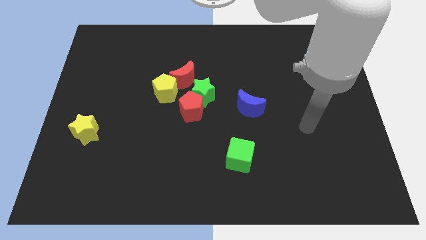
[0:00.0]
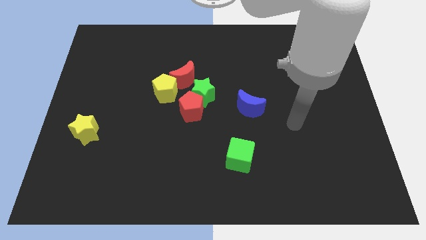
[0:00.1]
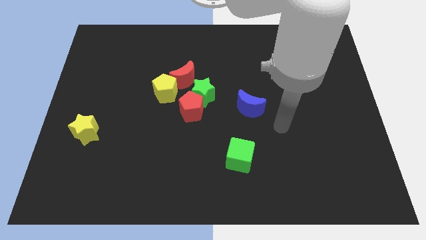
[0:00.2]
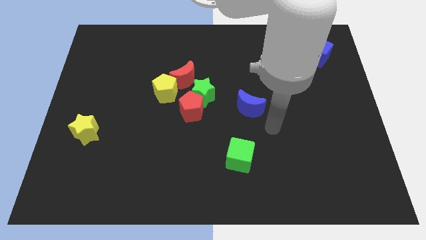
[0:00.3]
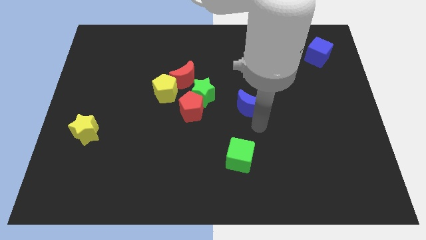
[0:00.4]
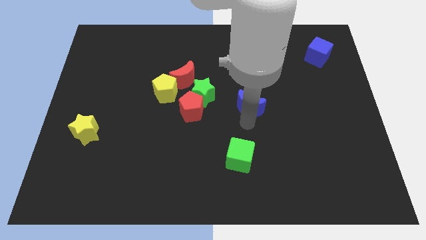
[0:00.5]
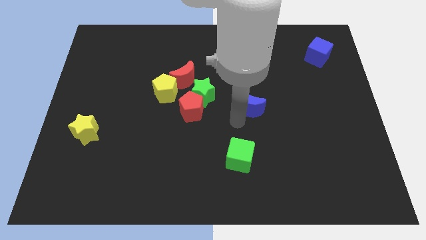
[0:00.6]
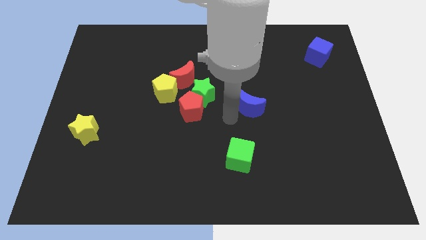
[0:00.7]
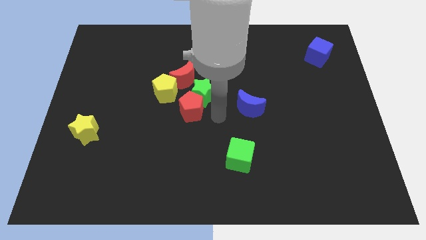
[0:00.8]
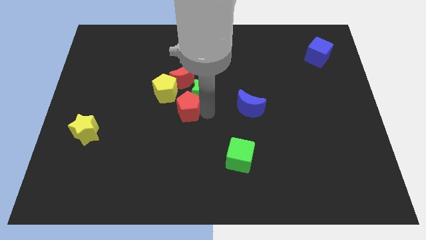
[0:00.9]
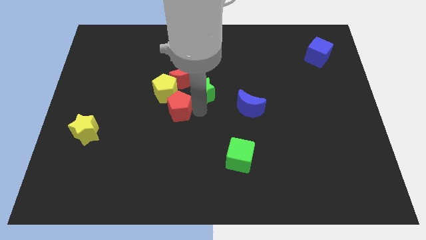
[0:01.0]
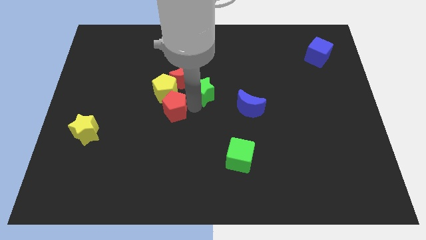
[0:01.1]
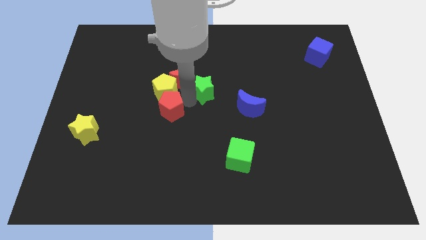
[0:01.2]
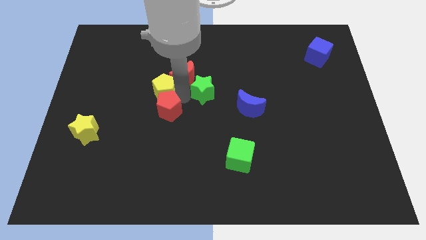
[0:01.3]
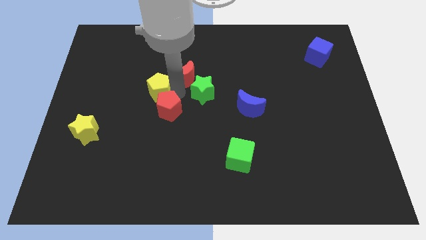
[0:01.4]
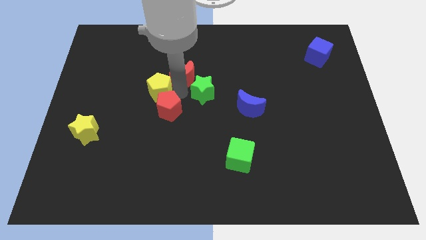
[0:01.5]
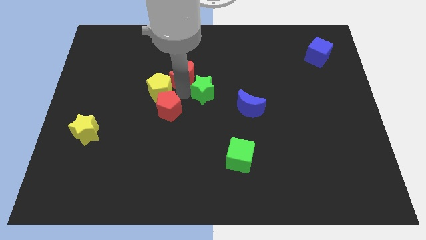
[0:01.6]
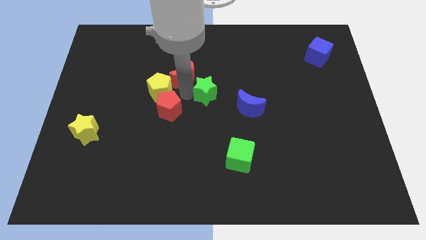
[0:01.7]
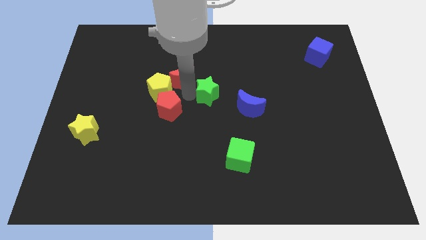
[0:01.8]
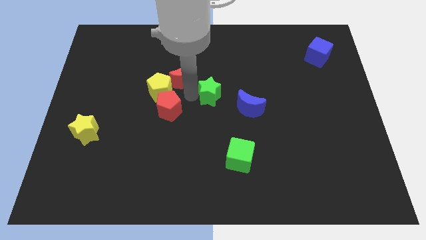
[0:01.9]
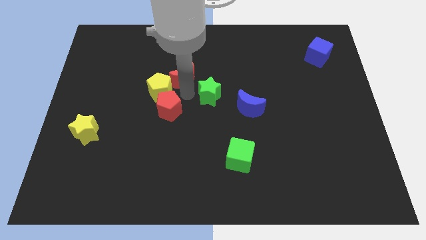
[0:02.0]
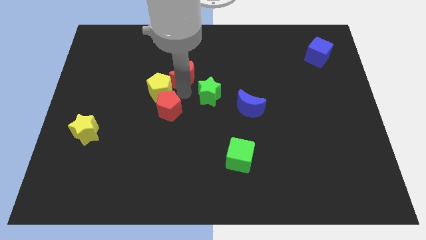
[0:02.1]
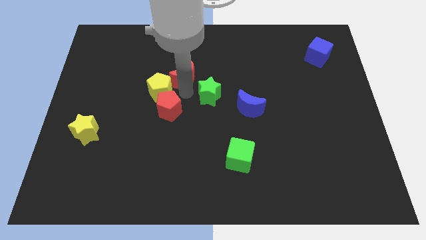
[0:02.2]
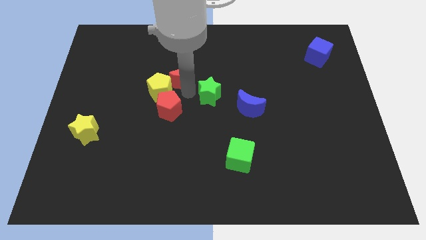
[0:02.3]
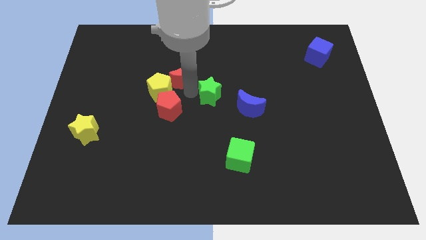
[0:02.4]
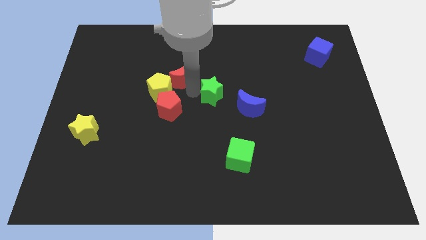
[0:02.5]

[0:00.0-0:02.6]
move the green star away from the red pentagon, red moon, and yellow pentagon

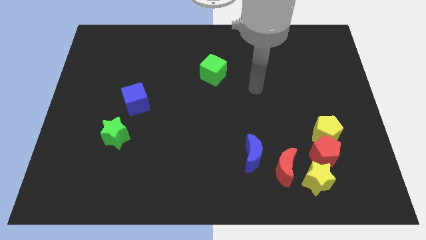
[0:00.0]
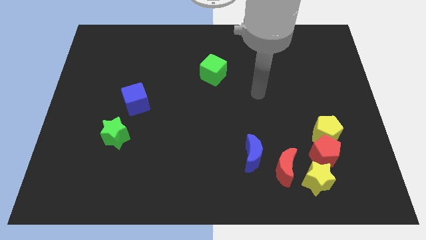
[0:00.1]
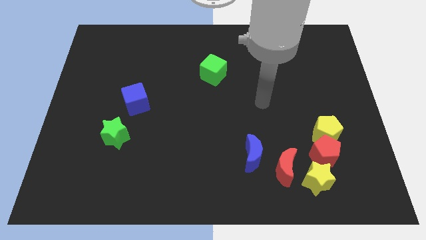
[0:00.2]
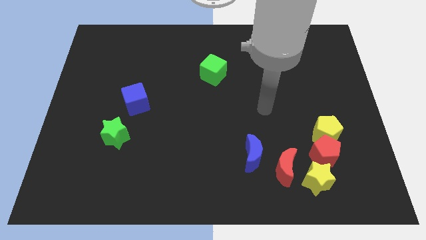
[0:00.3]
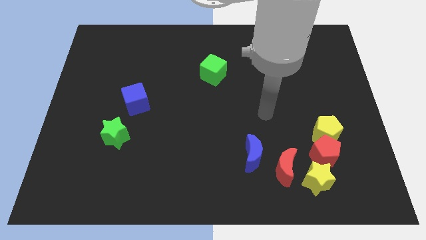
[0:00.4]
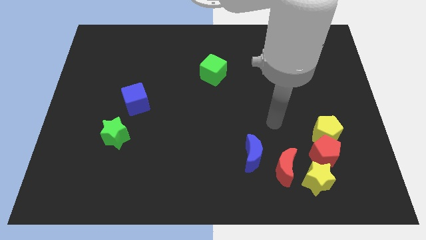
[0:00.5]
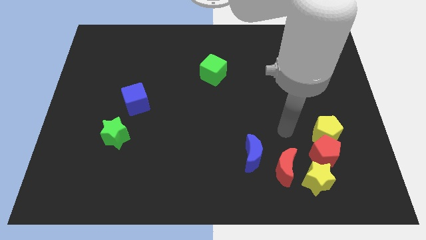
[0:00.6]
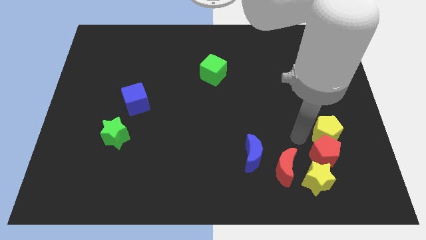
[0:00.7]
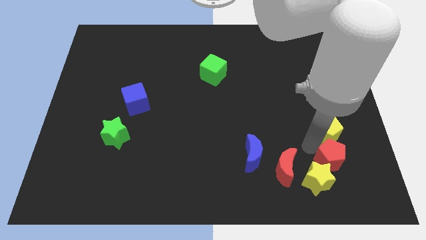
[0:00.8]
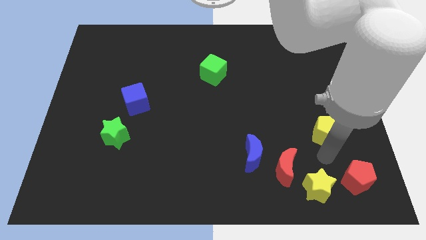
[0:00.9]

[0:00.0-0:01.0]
move the yellow pentagon away from the red pentagon

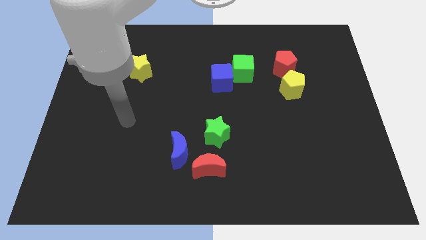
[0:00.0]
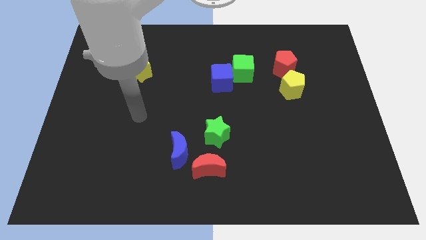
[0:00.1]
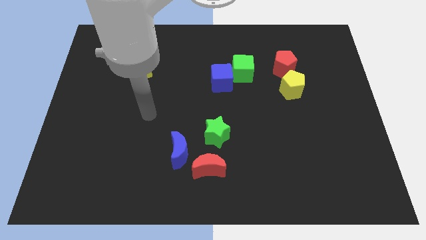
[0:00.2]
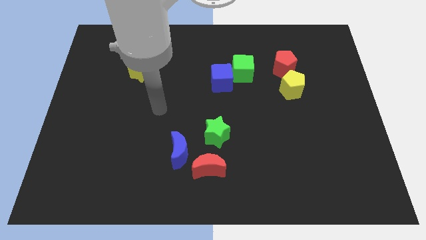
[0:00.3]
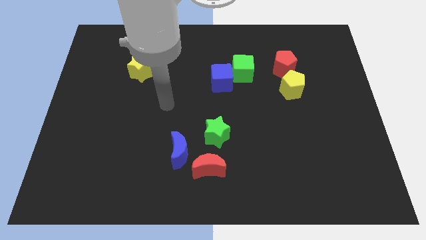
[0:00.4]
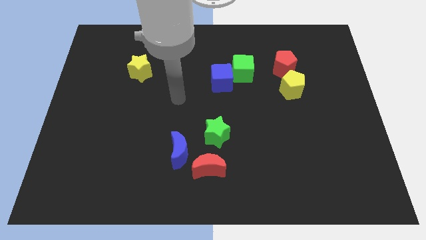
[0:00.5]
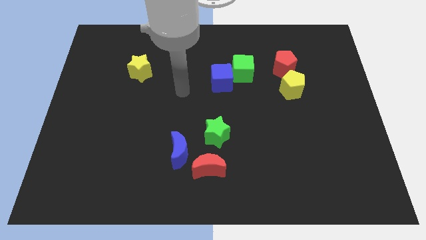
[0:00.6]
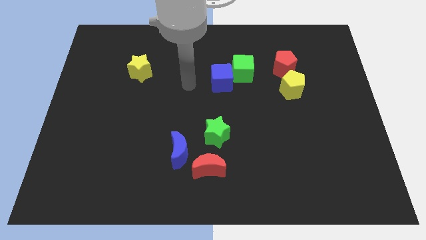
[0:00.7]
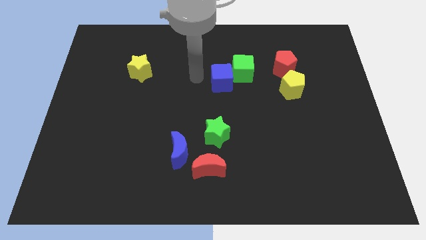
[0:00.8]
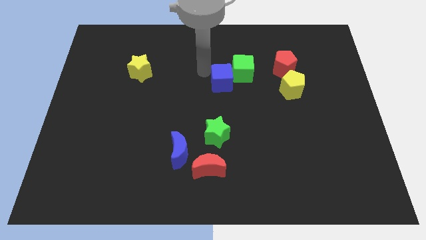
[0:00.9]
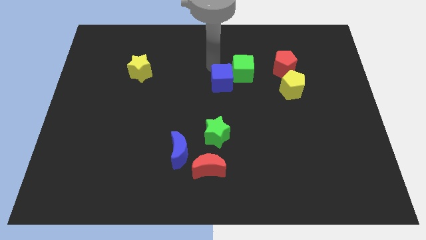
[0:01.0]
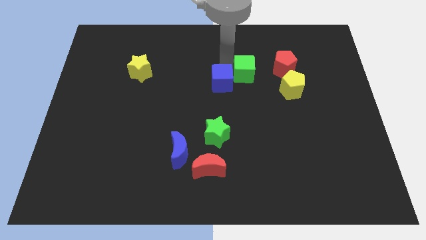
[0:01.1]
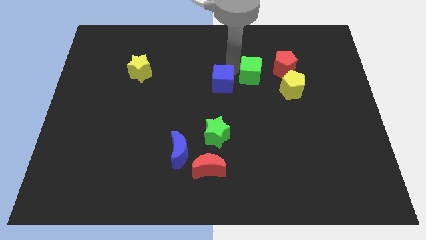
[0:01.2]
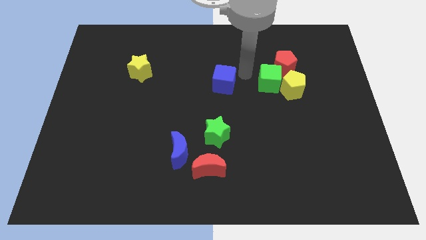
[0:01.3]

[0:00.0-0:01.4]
separate the blue cube from the green cube

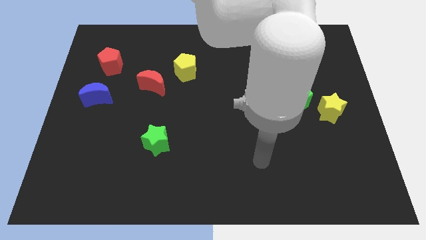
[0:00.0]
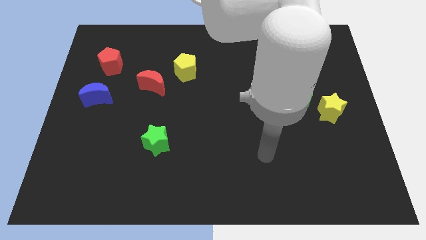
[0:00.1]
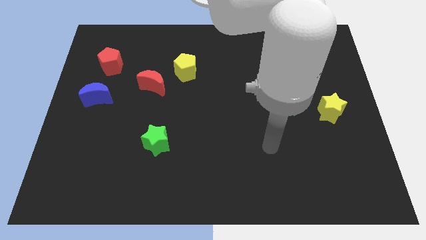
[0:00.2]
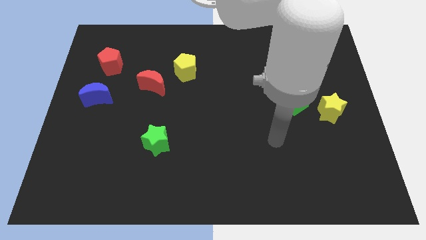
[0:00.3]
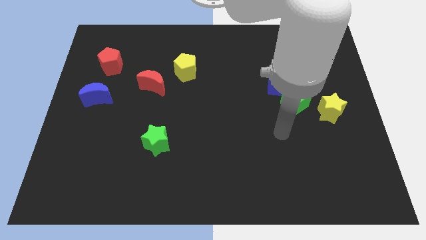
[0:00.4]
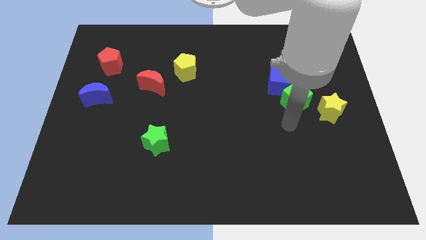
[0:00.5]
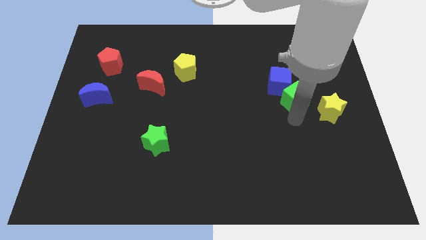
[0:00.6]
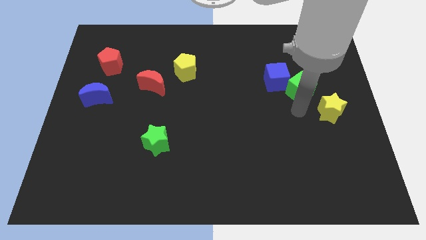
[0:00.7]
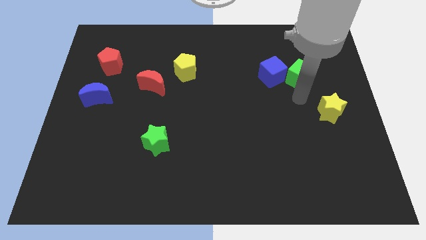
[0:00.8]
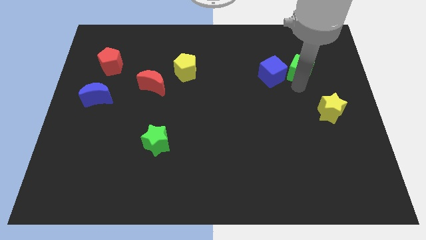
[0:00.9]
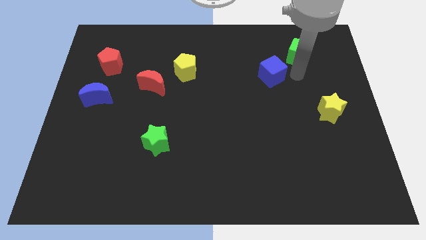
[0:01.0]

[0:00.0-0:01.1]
move the blue cube away from the green cube

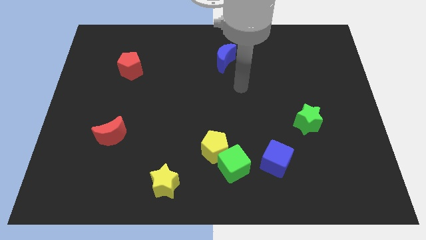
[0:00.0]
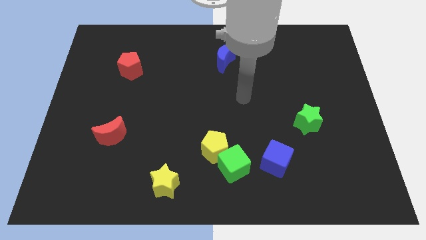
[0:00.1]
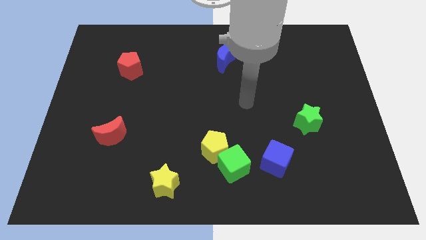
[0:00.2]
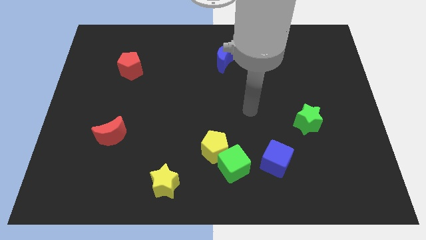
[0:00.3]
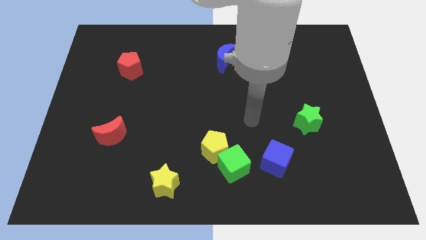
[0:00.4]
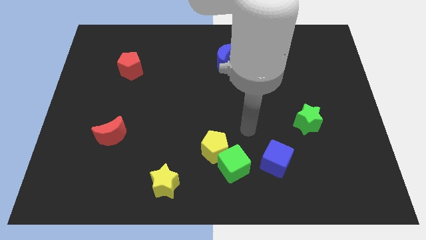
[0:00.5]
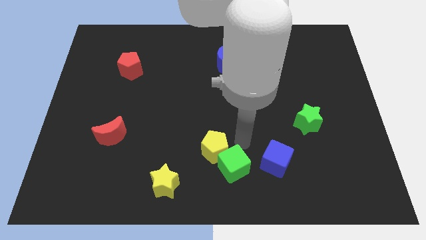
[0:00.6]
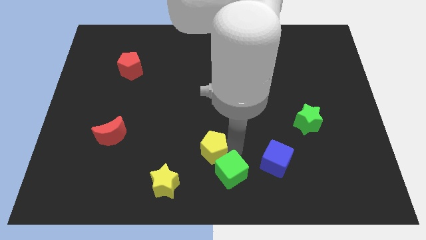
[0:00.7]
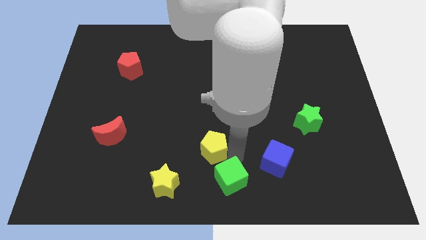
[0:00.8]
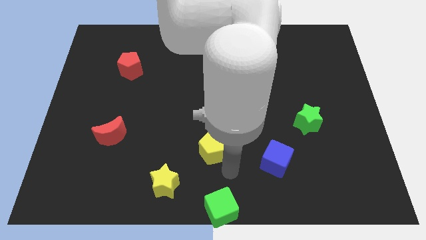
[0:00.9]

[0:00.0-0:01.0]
pull the yellow pentagon apart from the green cube

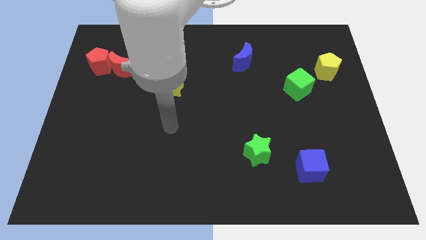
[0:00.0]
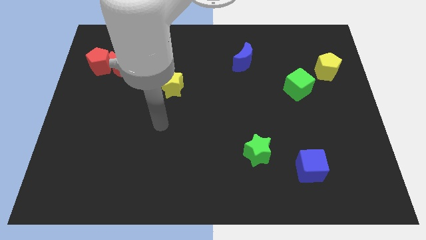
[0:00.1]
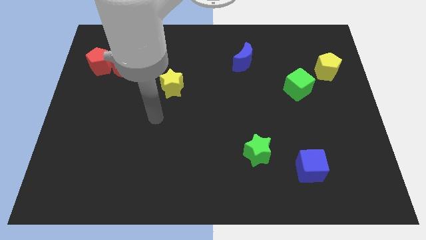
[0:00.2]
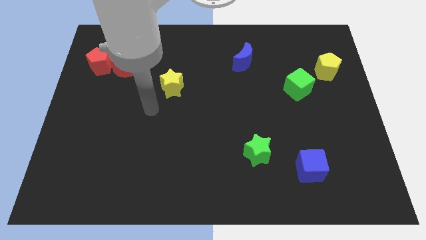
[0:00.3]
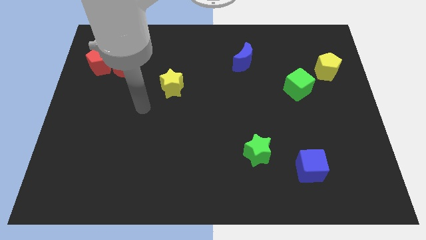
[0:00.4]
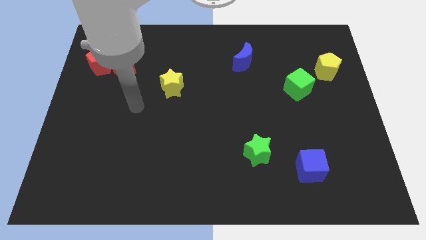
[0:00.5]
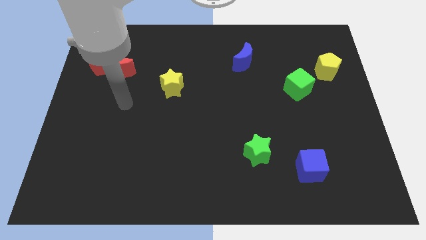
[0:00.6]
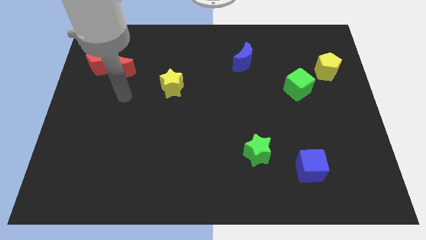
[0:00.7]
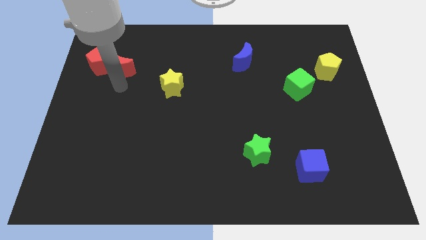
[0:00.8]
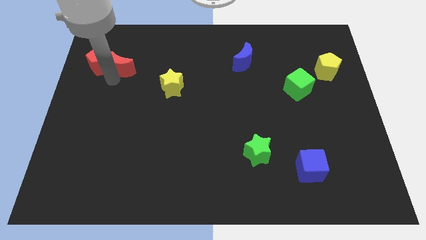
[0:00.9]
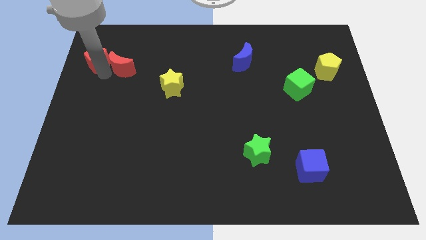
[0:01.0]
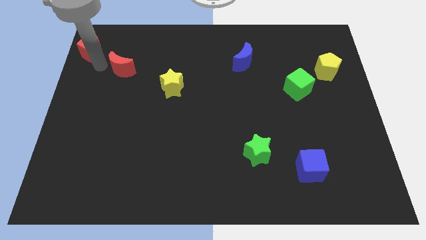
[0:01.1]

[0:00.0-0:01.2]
pull the red moon apart from the red pentagon

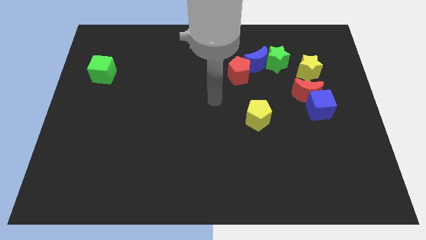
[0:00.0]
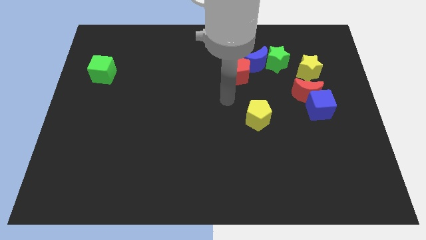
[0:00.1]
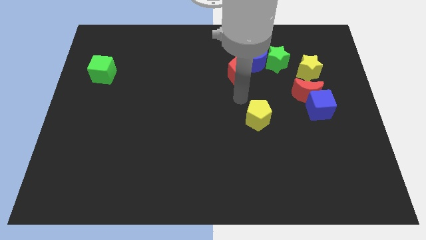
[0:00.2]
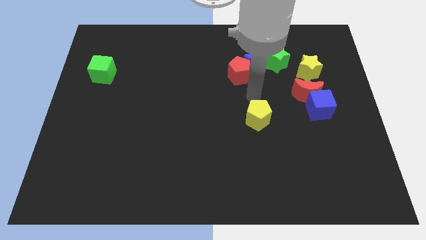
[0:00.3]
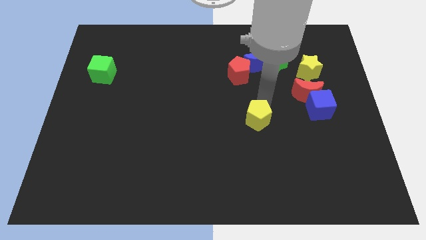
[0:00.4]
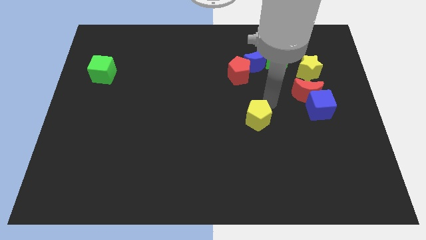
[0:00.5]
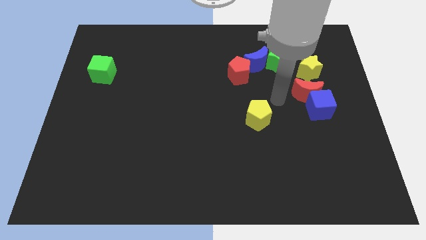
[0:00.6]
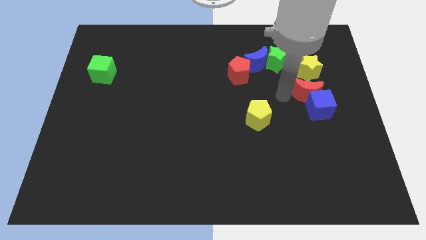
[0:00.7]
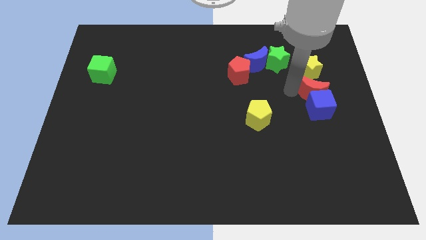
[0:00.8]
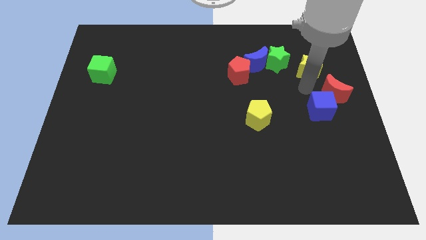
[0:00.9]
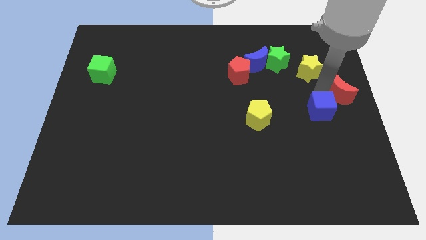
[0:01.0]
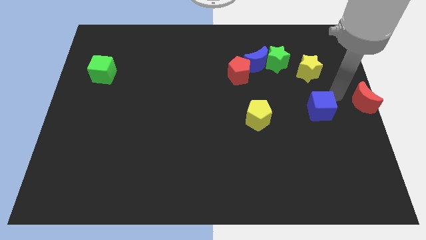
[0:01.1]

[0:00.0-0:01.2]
move the blue cube away from the red moon
